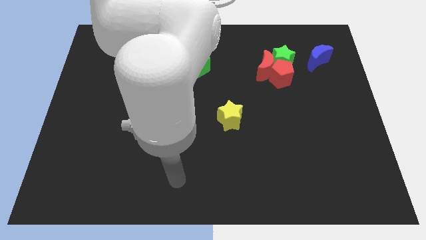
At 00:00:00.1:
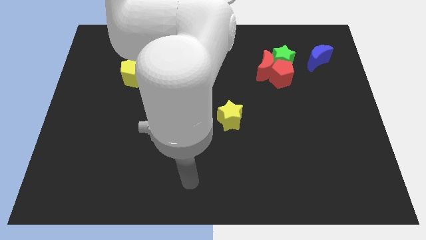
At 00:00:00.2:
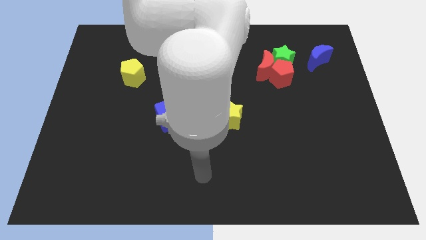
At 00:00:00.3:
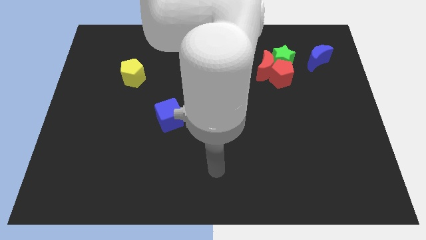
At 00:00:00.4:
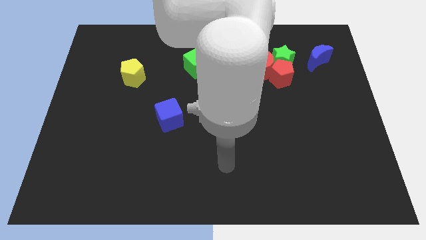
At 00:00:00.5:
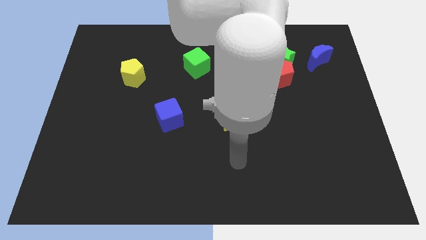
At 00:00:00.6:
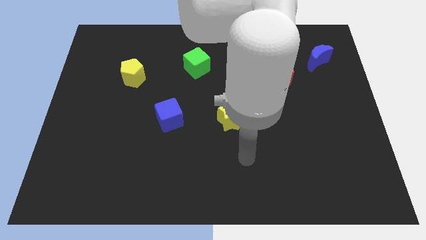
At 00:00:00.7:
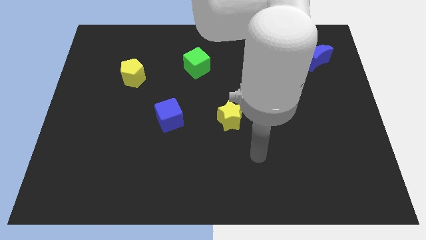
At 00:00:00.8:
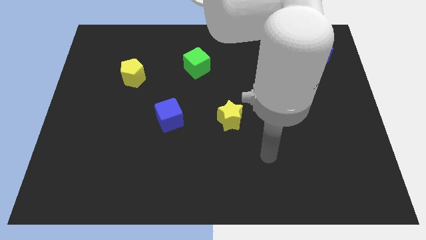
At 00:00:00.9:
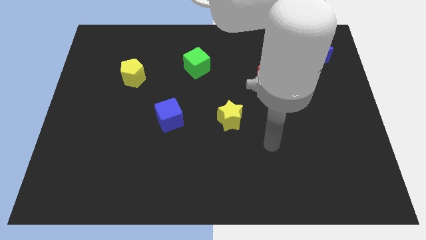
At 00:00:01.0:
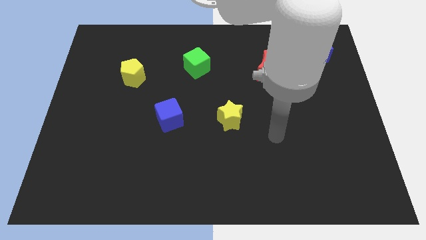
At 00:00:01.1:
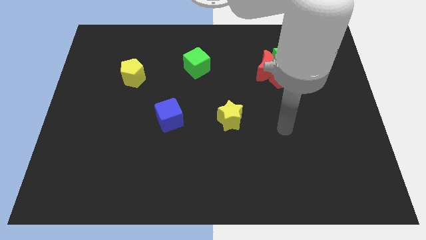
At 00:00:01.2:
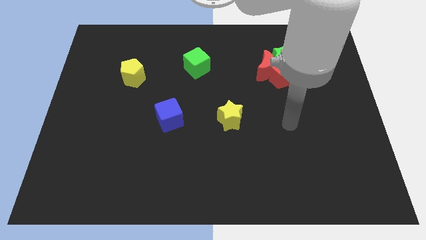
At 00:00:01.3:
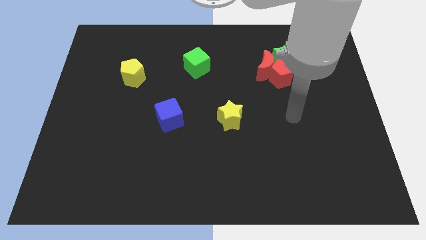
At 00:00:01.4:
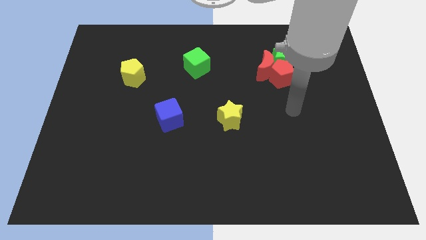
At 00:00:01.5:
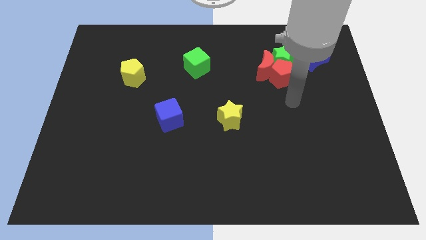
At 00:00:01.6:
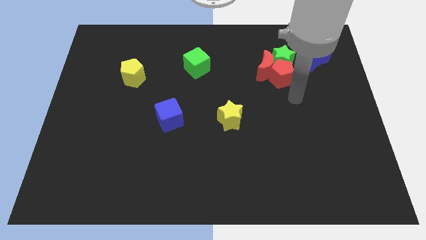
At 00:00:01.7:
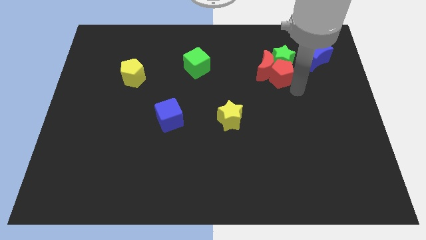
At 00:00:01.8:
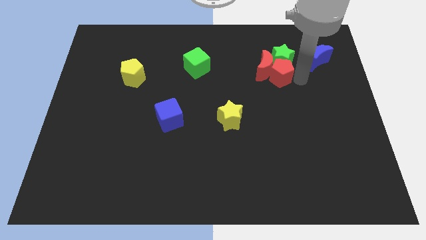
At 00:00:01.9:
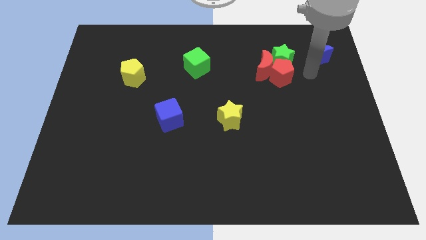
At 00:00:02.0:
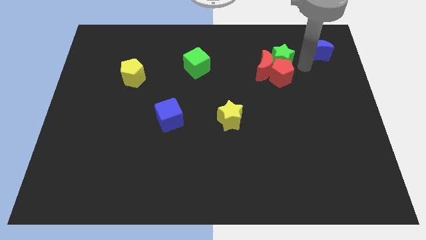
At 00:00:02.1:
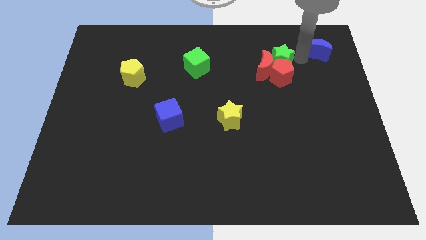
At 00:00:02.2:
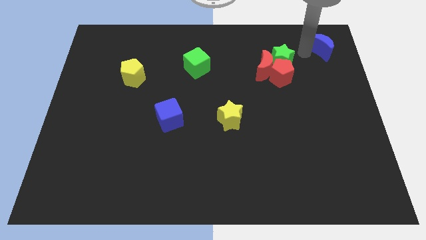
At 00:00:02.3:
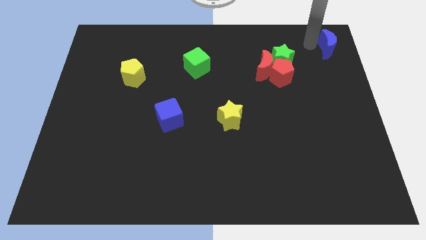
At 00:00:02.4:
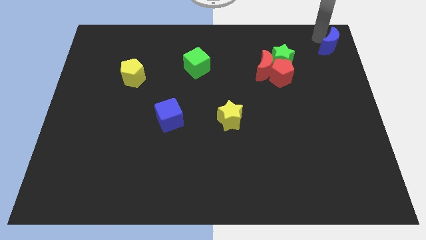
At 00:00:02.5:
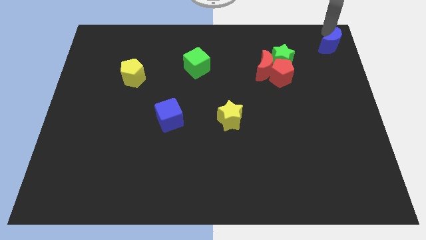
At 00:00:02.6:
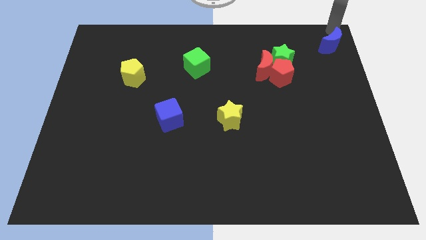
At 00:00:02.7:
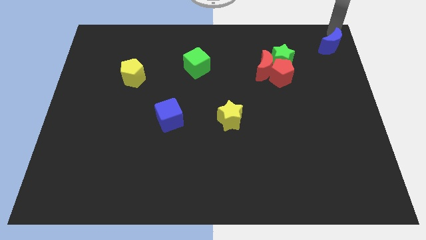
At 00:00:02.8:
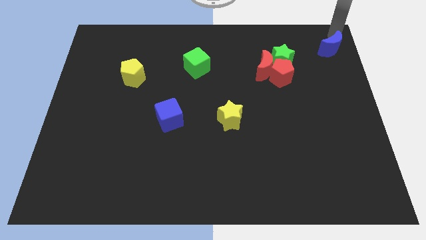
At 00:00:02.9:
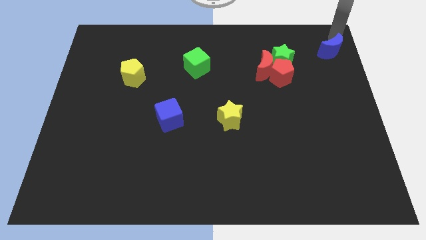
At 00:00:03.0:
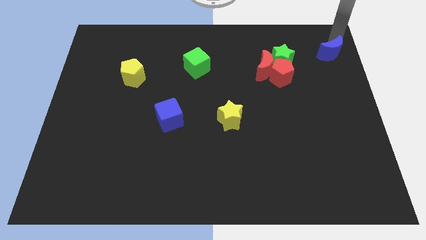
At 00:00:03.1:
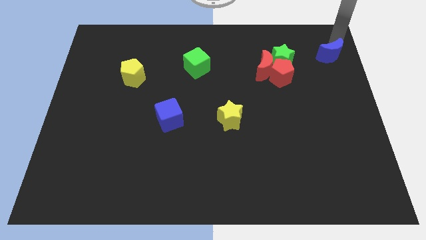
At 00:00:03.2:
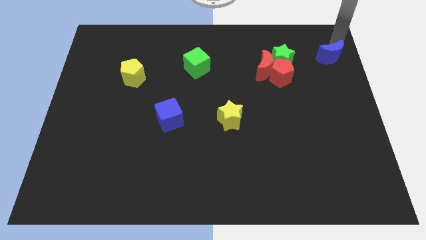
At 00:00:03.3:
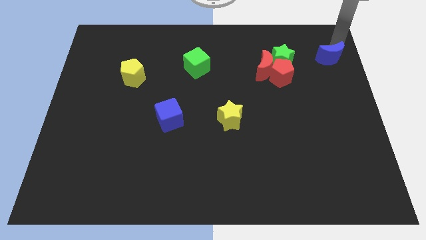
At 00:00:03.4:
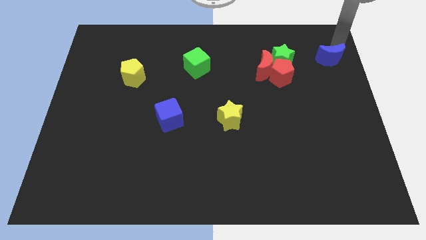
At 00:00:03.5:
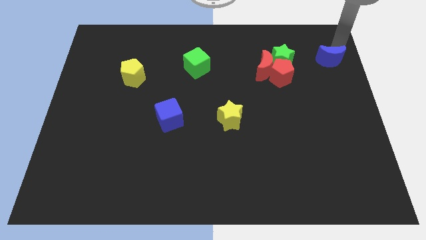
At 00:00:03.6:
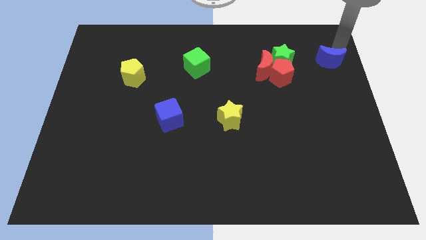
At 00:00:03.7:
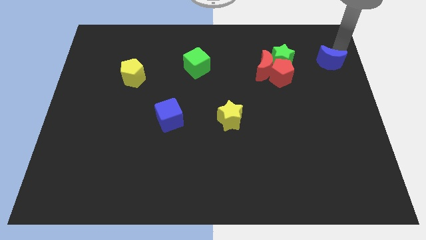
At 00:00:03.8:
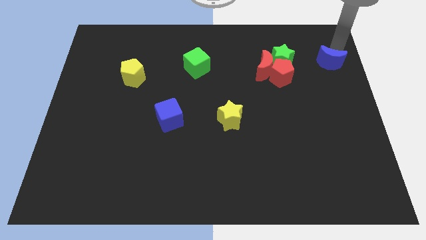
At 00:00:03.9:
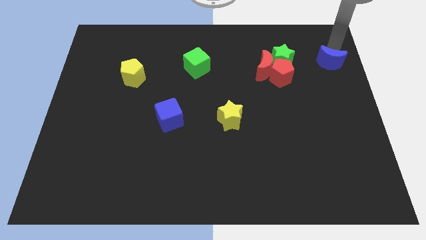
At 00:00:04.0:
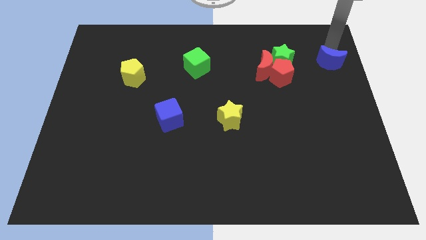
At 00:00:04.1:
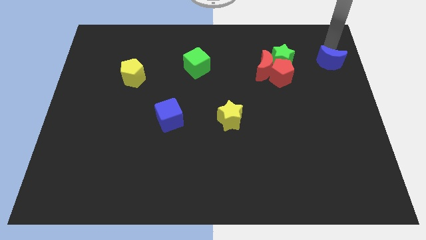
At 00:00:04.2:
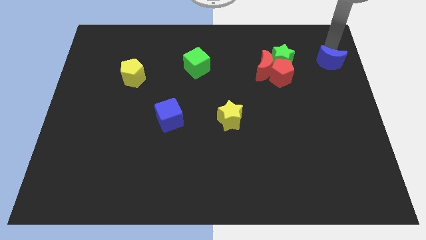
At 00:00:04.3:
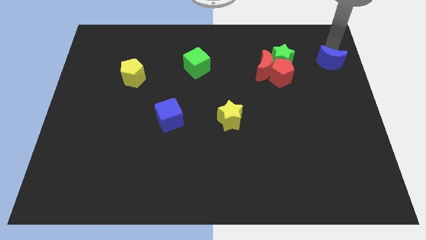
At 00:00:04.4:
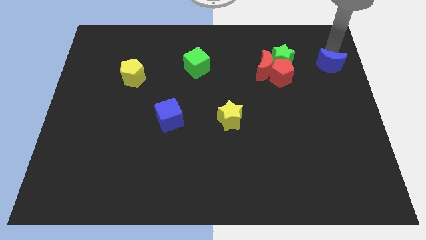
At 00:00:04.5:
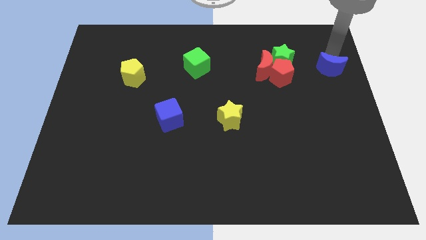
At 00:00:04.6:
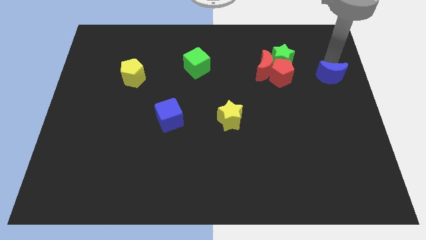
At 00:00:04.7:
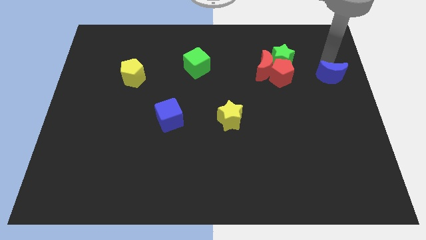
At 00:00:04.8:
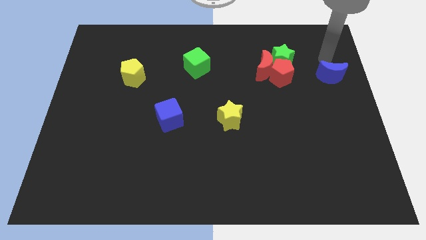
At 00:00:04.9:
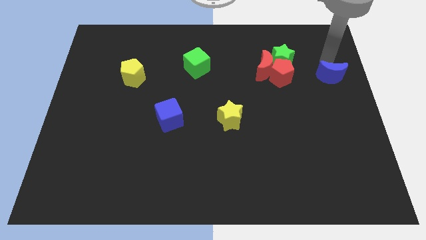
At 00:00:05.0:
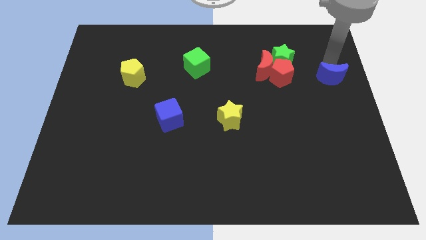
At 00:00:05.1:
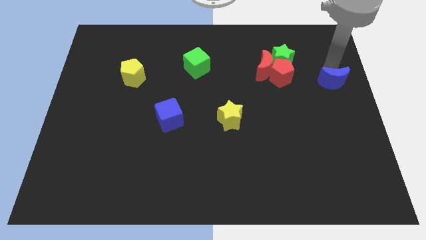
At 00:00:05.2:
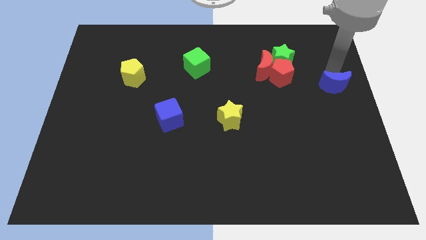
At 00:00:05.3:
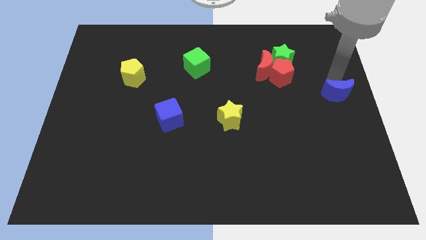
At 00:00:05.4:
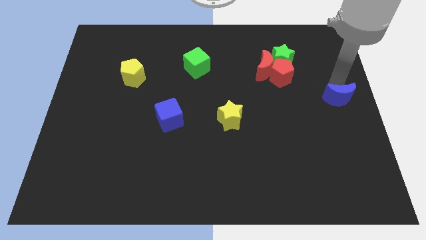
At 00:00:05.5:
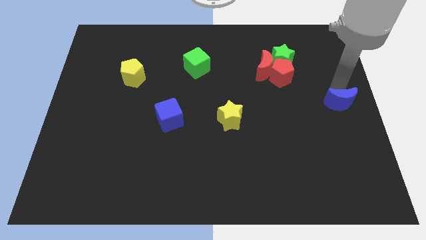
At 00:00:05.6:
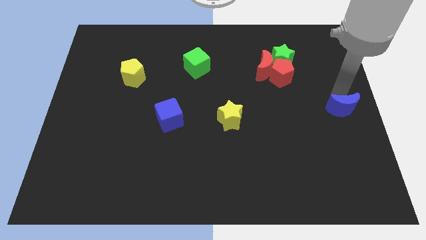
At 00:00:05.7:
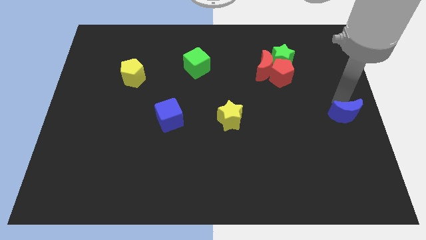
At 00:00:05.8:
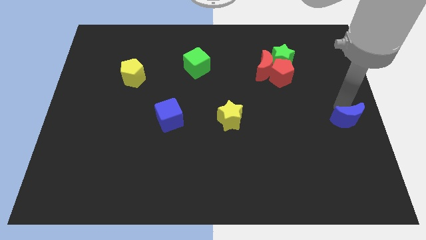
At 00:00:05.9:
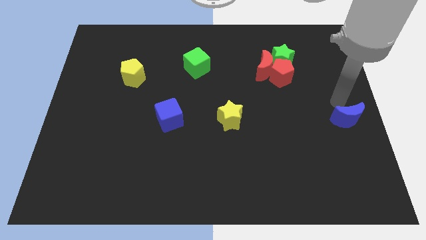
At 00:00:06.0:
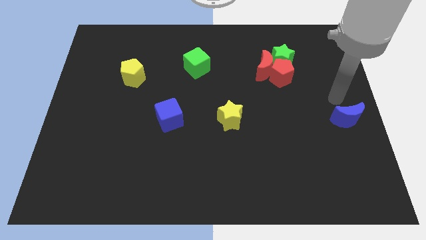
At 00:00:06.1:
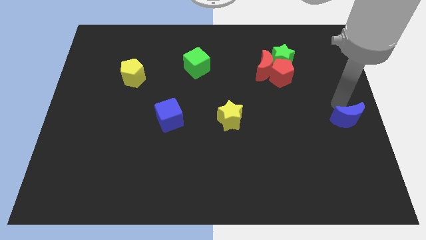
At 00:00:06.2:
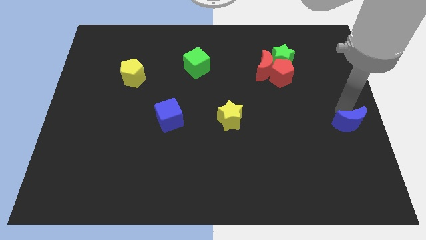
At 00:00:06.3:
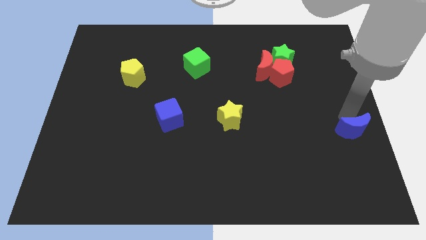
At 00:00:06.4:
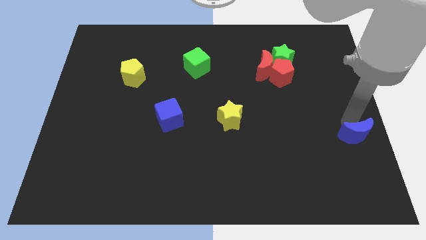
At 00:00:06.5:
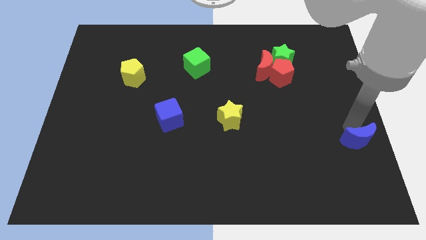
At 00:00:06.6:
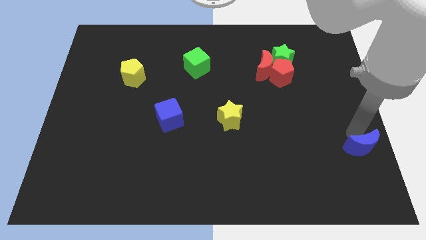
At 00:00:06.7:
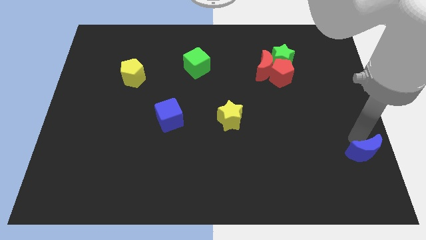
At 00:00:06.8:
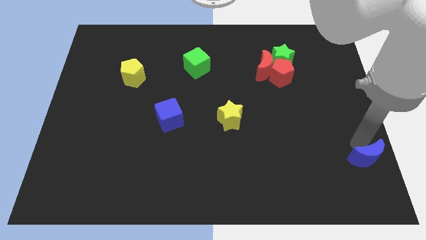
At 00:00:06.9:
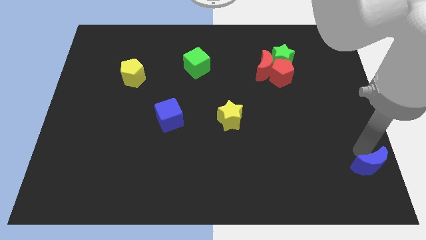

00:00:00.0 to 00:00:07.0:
slide the blue moon to the lower right corner
